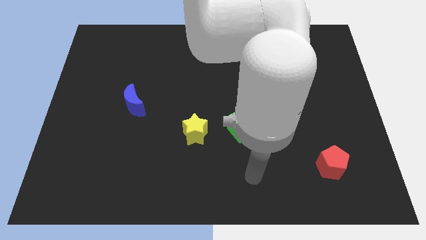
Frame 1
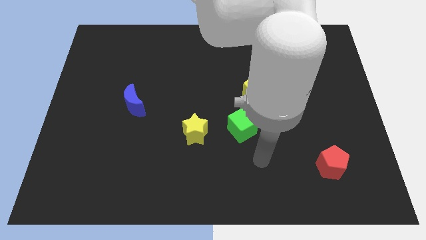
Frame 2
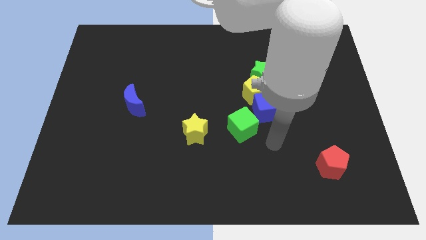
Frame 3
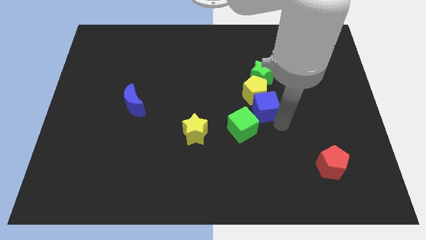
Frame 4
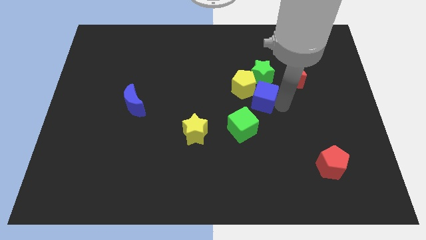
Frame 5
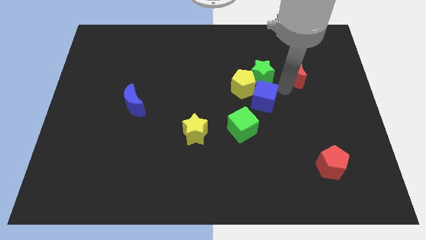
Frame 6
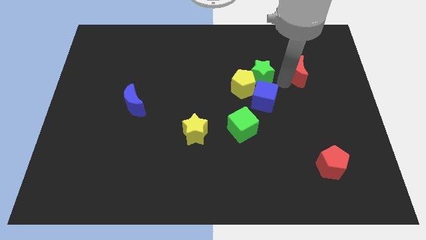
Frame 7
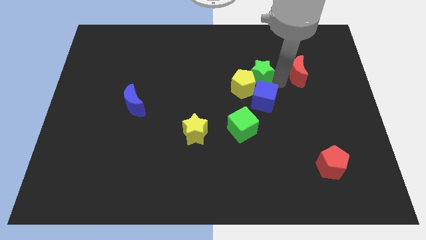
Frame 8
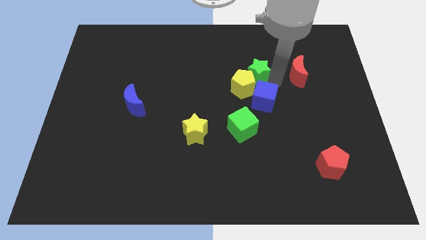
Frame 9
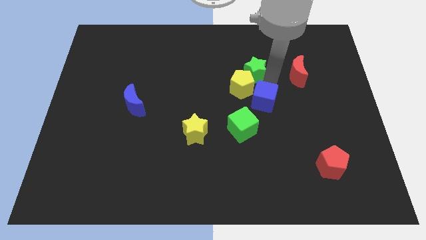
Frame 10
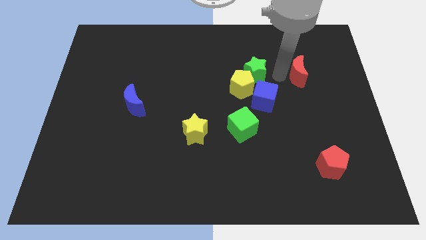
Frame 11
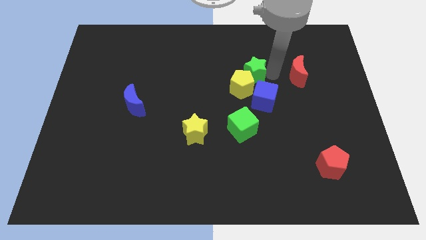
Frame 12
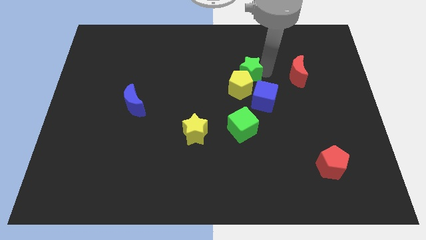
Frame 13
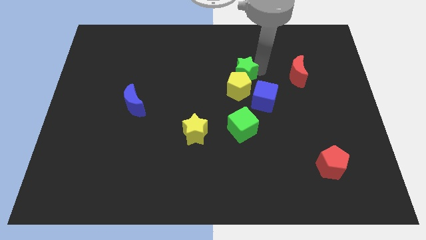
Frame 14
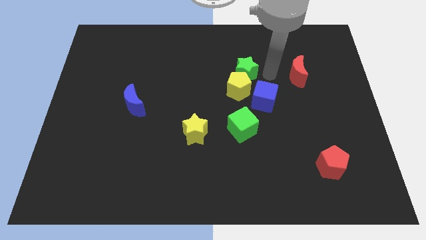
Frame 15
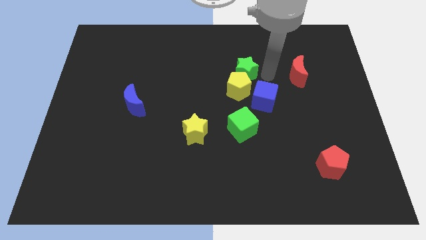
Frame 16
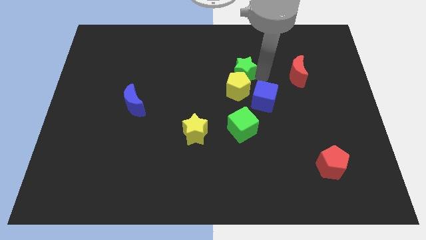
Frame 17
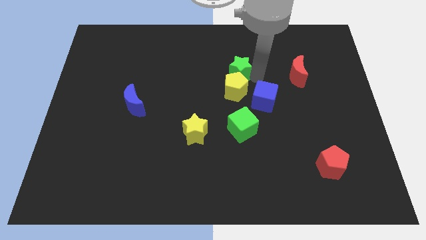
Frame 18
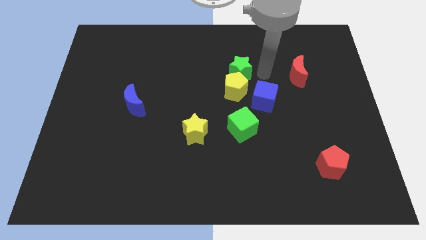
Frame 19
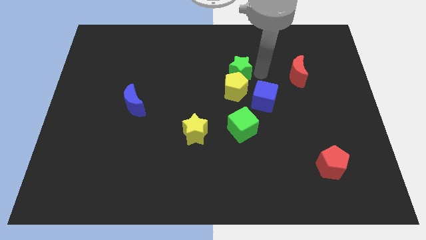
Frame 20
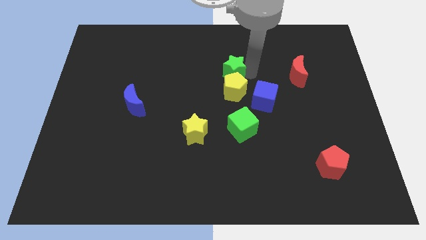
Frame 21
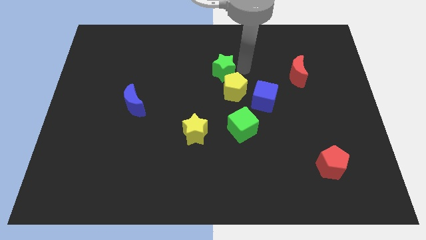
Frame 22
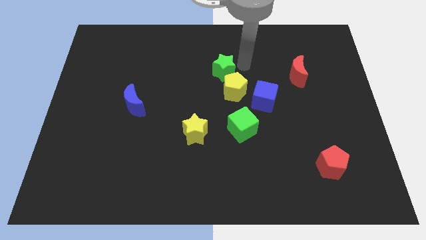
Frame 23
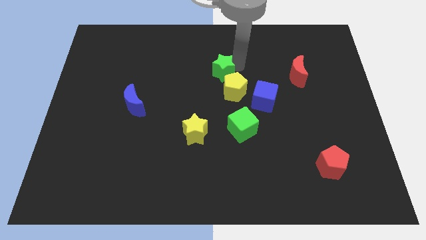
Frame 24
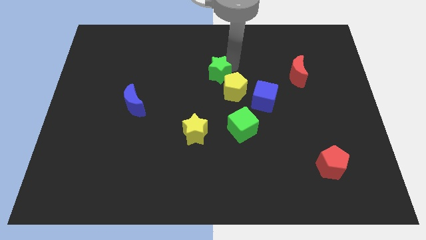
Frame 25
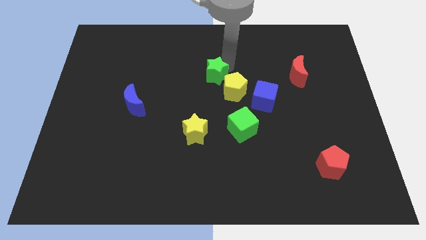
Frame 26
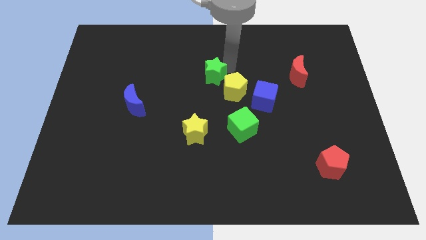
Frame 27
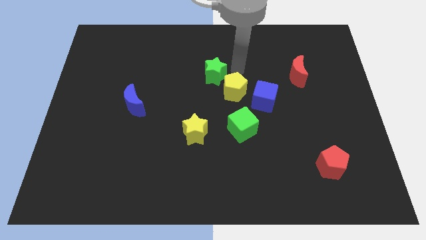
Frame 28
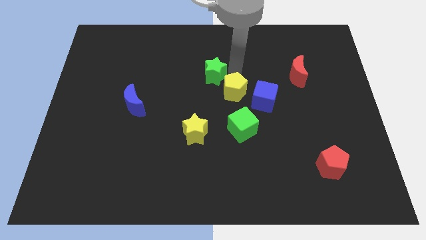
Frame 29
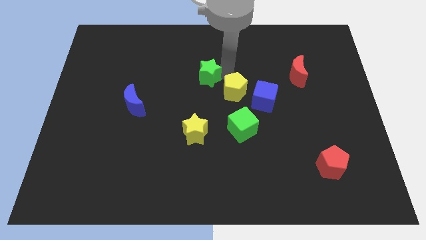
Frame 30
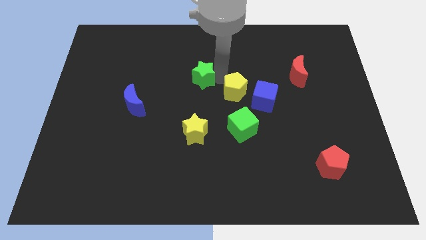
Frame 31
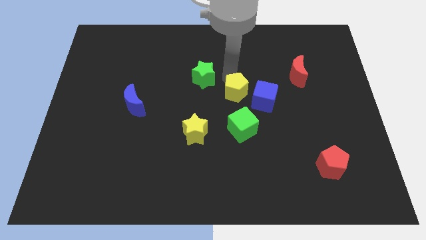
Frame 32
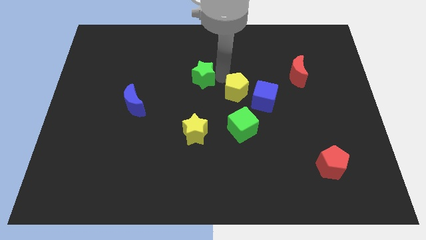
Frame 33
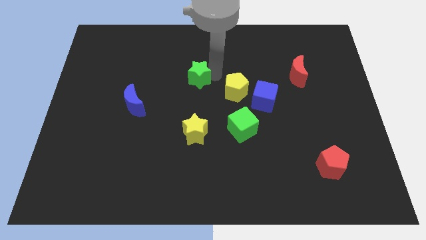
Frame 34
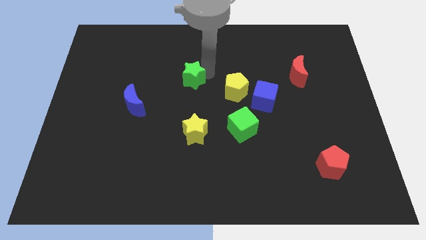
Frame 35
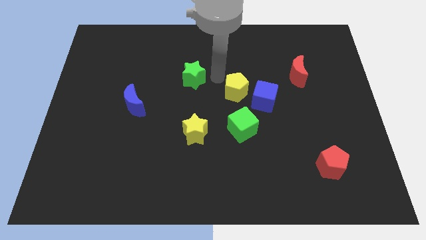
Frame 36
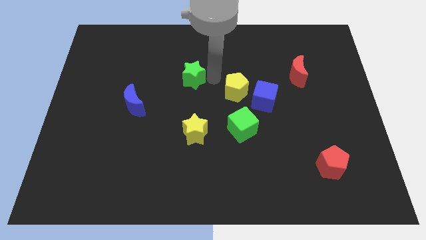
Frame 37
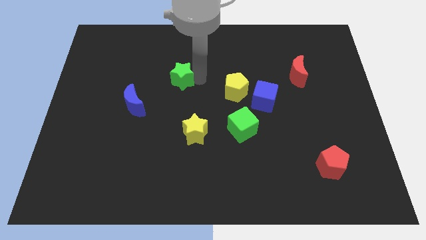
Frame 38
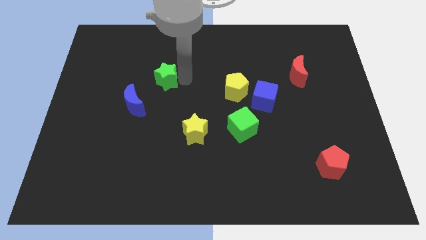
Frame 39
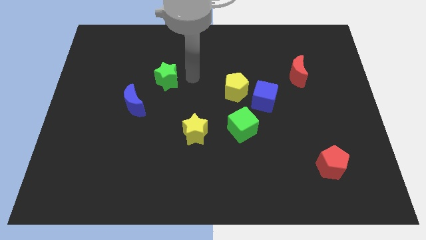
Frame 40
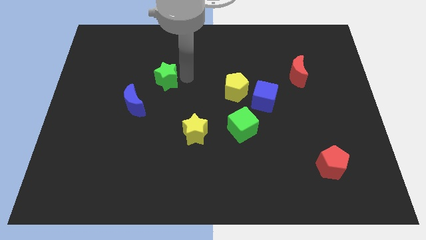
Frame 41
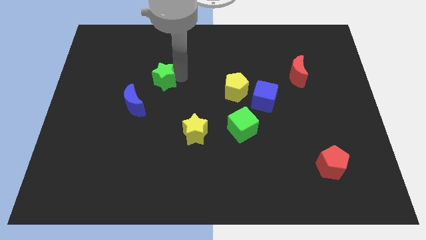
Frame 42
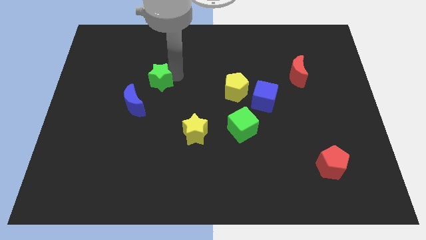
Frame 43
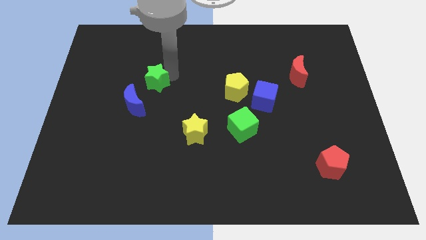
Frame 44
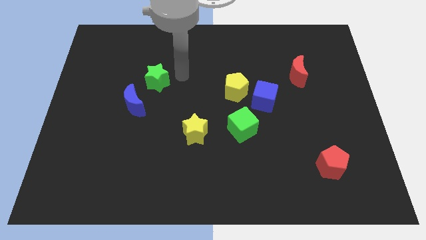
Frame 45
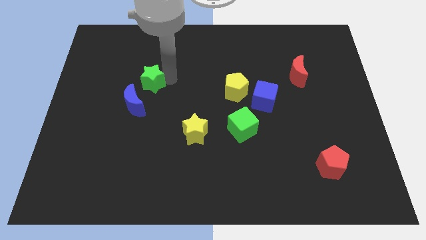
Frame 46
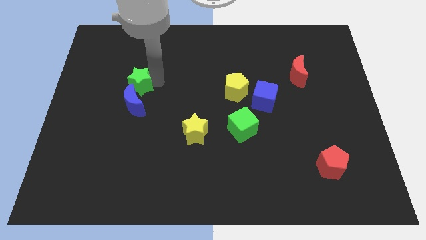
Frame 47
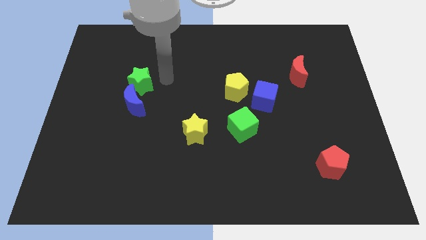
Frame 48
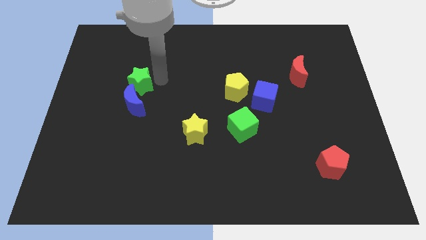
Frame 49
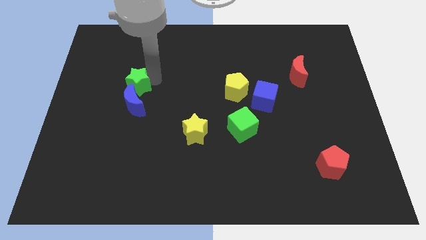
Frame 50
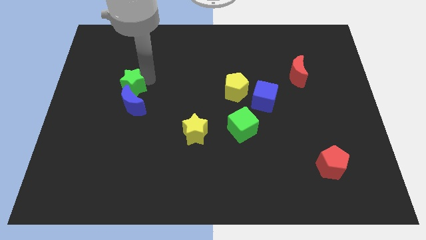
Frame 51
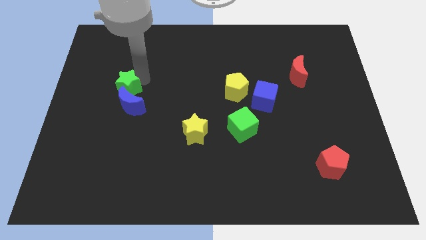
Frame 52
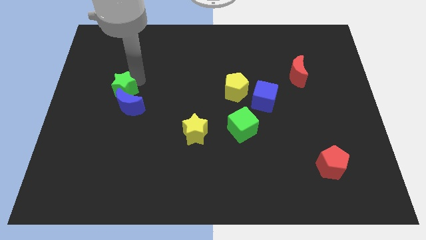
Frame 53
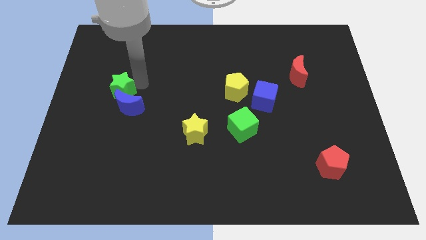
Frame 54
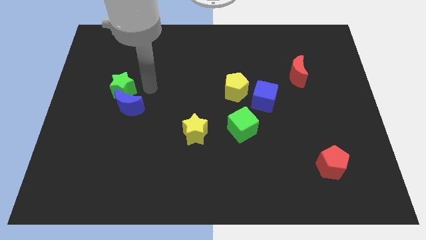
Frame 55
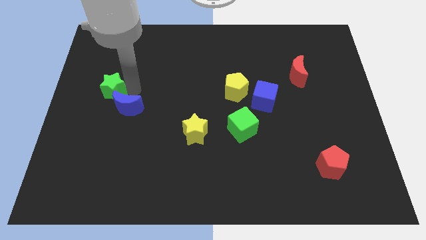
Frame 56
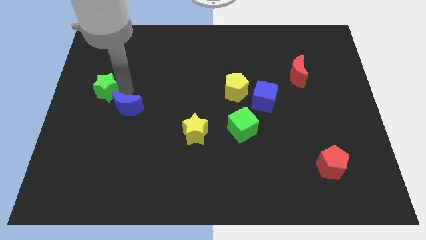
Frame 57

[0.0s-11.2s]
put the green star to the left side

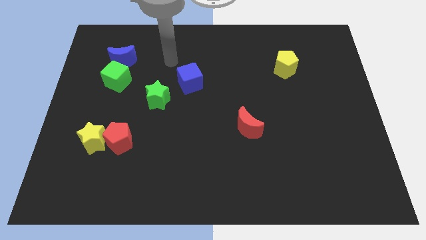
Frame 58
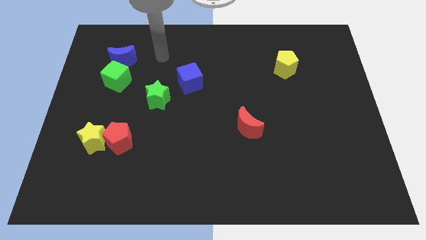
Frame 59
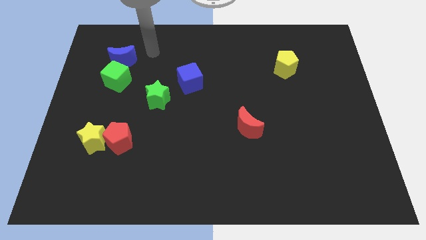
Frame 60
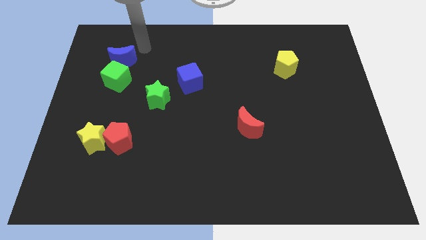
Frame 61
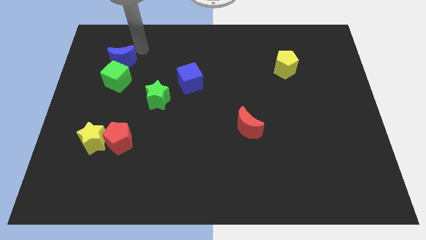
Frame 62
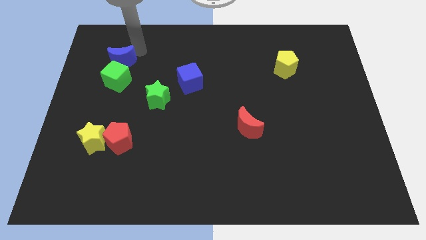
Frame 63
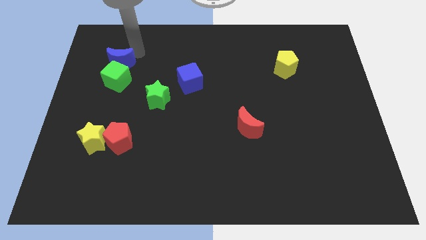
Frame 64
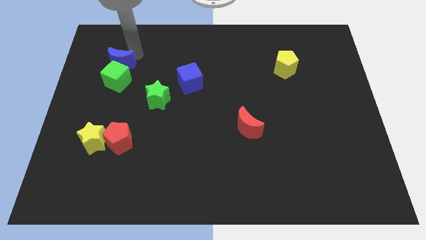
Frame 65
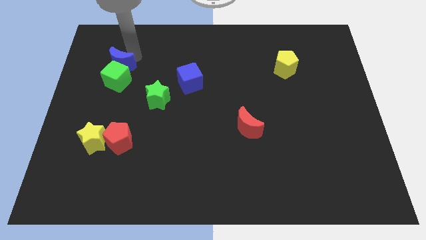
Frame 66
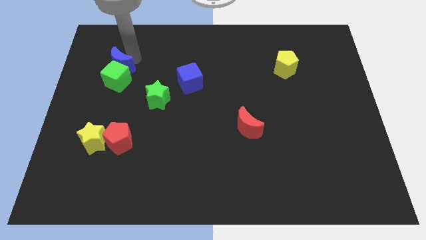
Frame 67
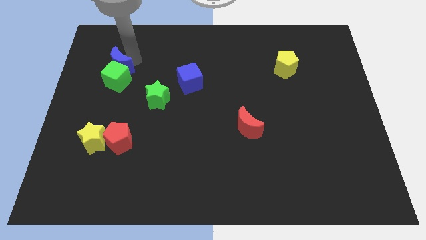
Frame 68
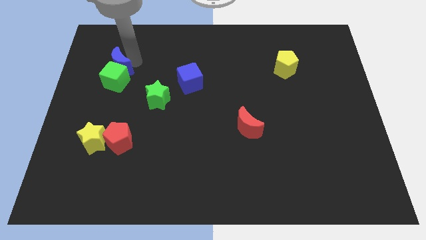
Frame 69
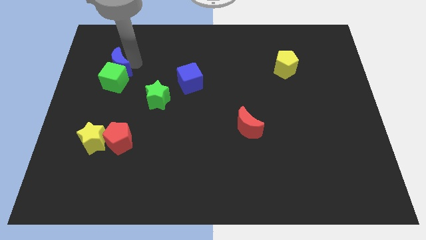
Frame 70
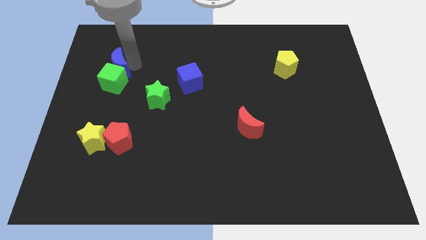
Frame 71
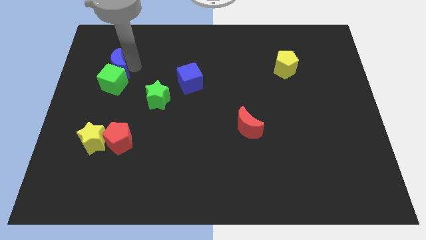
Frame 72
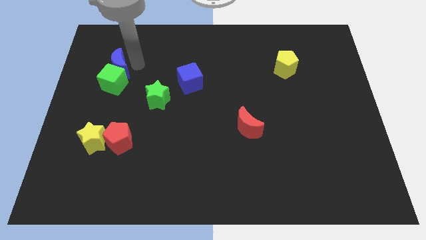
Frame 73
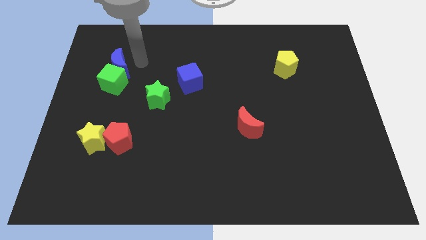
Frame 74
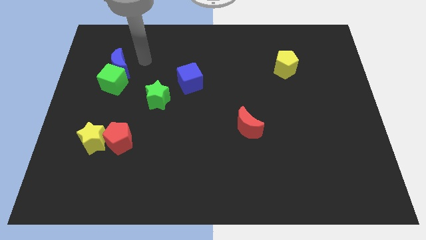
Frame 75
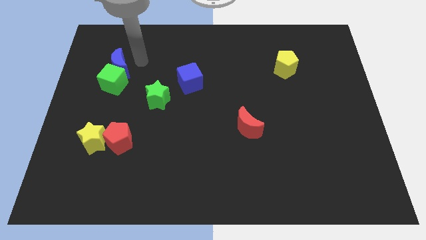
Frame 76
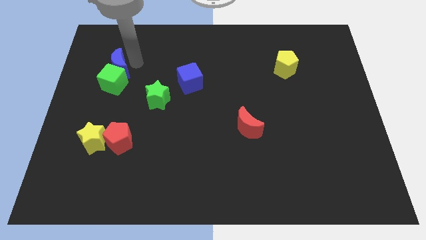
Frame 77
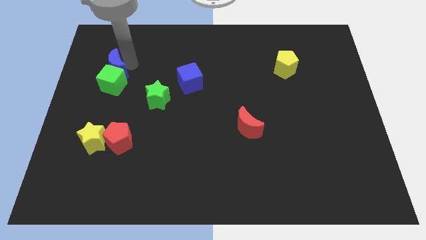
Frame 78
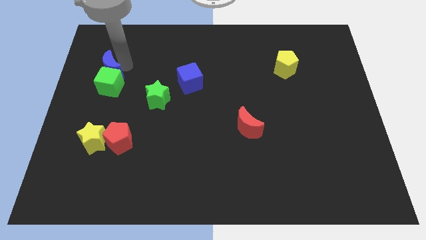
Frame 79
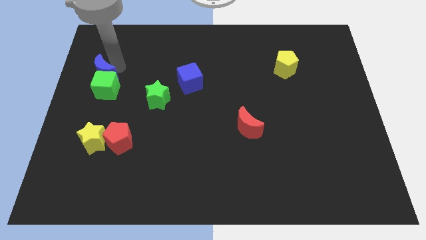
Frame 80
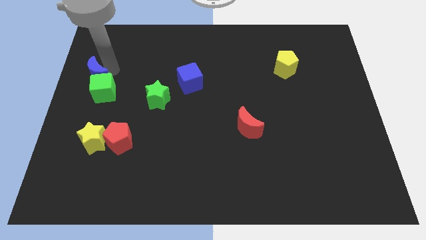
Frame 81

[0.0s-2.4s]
push the blue moon to the left side of the board
